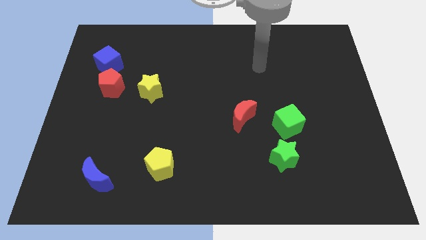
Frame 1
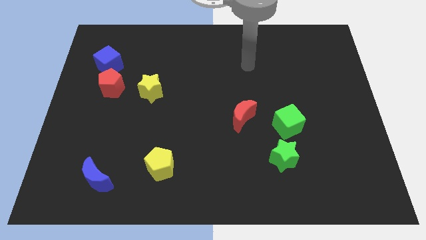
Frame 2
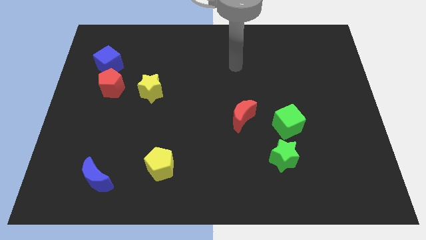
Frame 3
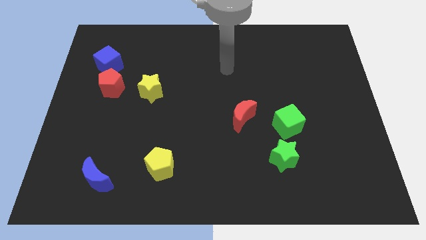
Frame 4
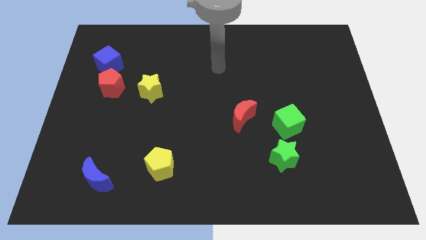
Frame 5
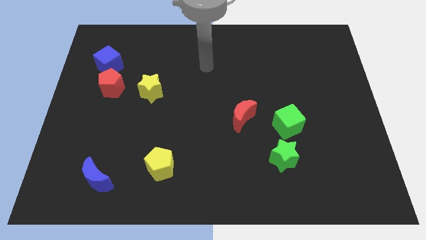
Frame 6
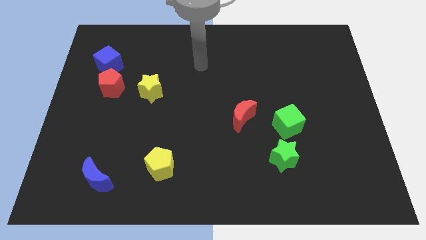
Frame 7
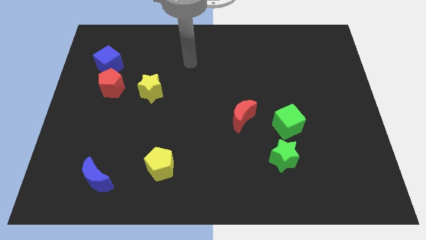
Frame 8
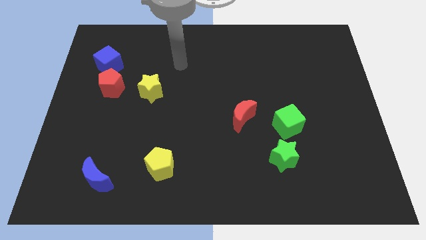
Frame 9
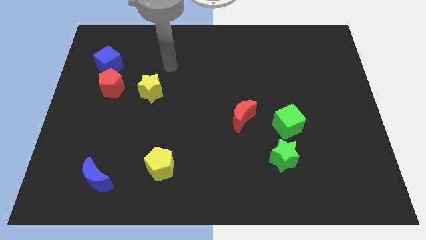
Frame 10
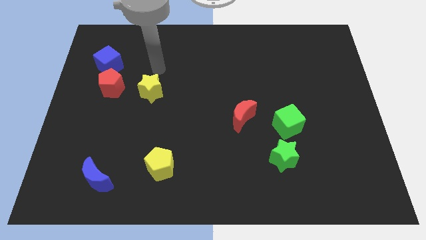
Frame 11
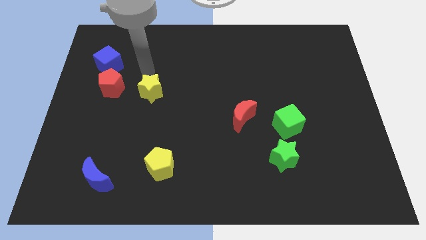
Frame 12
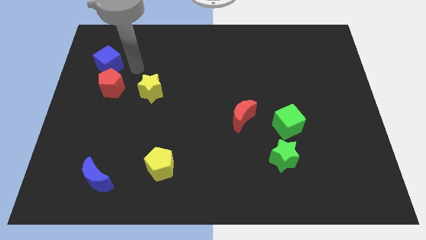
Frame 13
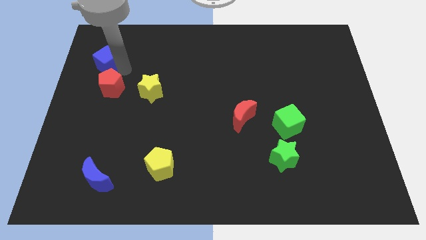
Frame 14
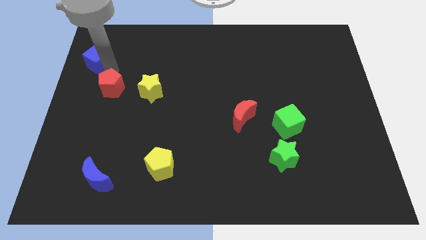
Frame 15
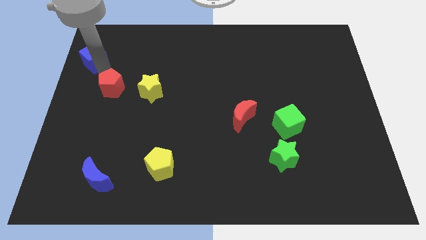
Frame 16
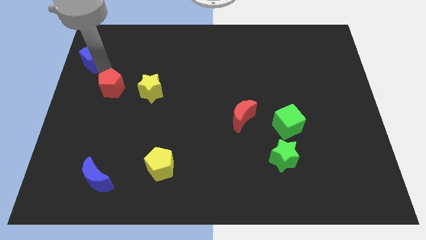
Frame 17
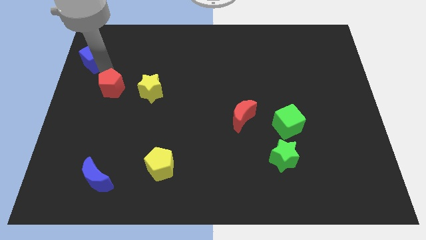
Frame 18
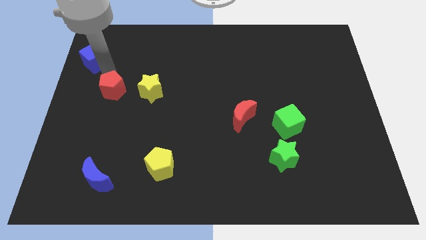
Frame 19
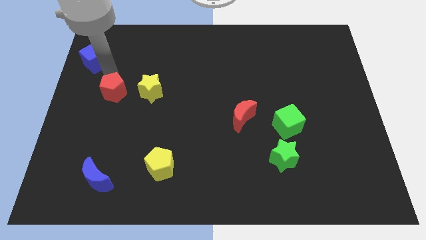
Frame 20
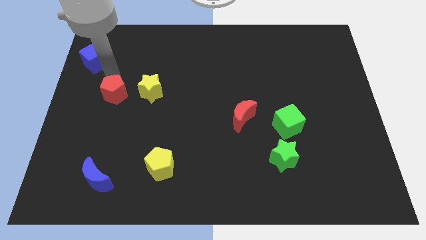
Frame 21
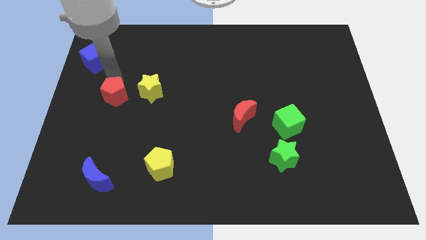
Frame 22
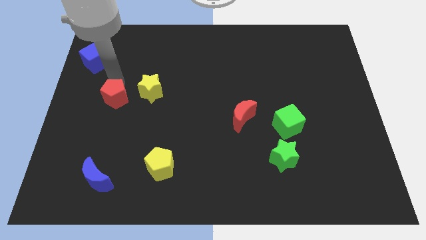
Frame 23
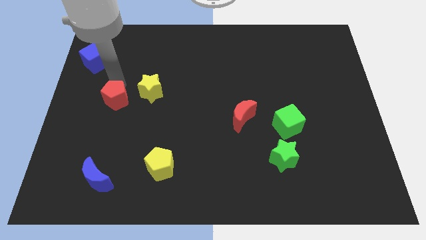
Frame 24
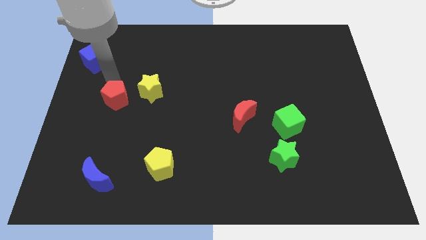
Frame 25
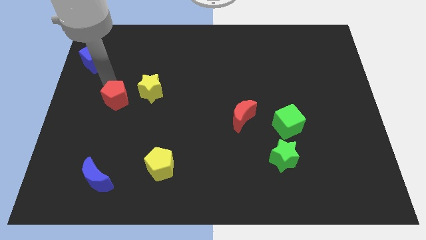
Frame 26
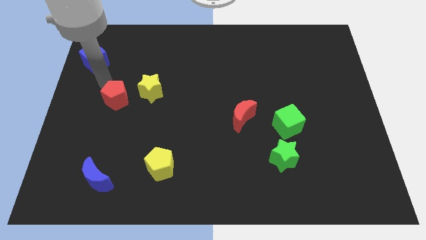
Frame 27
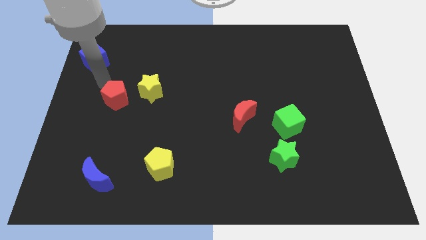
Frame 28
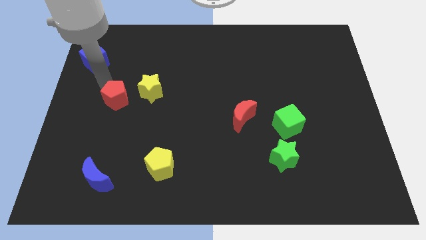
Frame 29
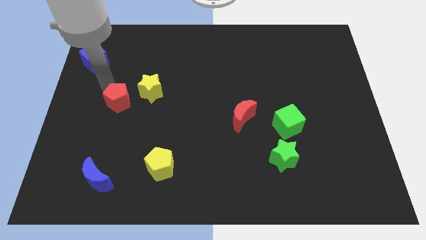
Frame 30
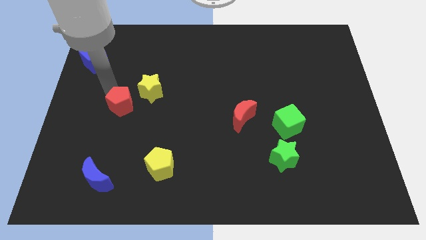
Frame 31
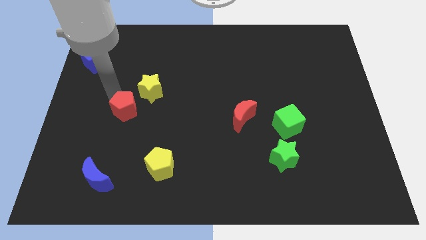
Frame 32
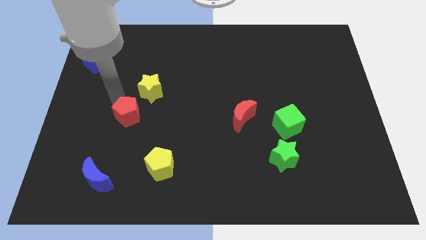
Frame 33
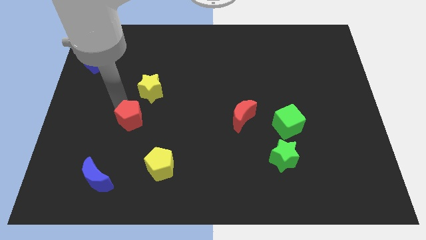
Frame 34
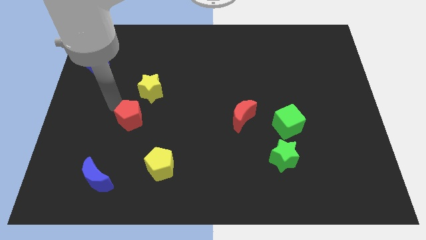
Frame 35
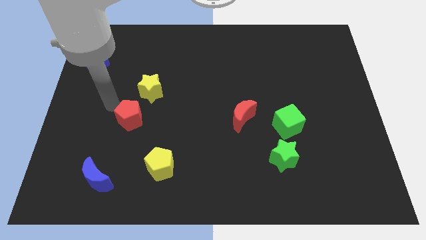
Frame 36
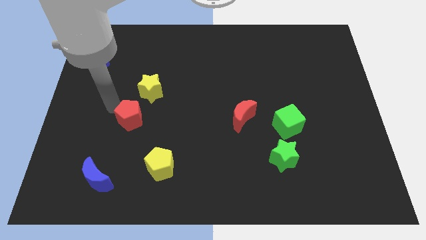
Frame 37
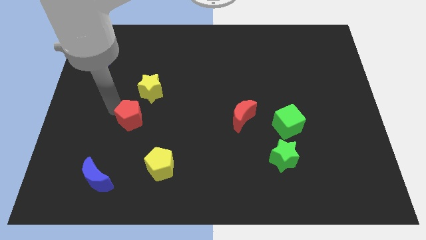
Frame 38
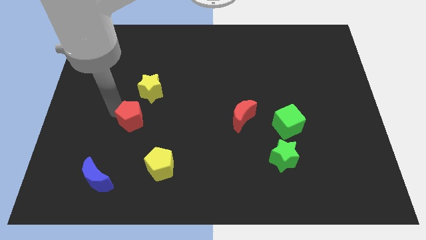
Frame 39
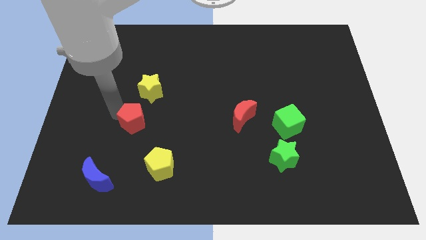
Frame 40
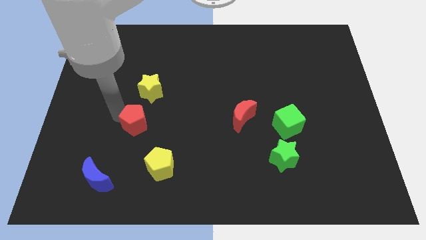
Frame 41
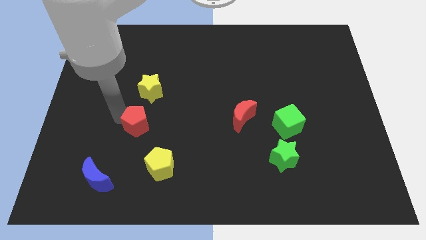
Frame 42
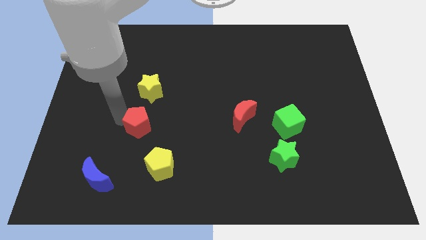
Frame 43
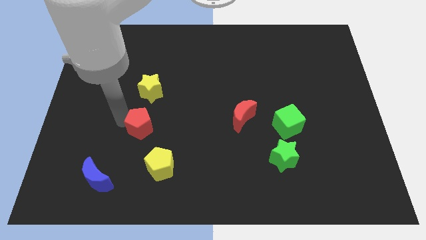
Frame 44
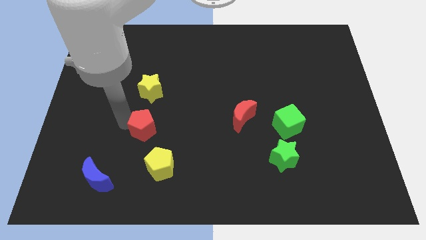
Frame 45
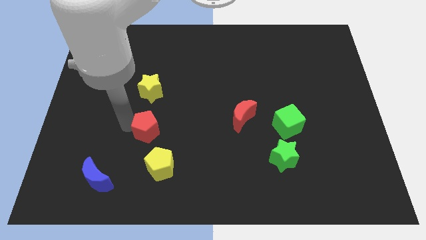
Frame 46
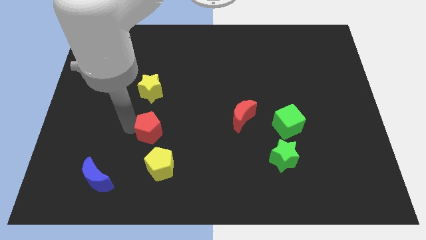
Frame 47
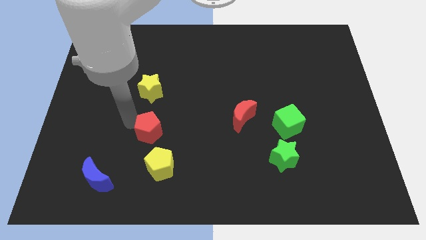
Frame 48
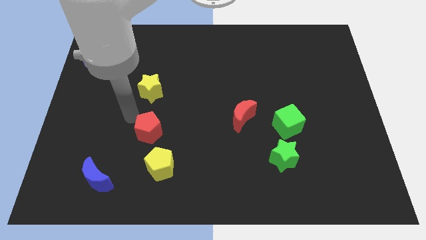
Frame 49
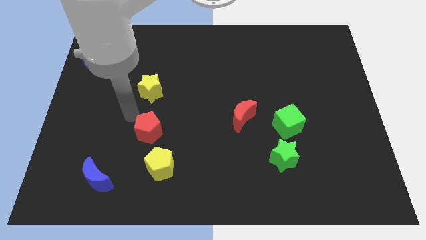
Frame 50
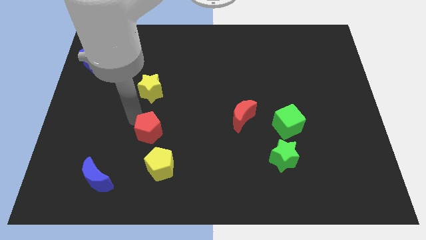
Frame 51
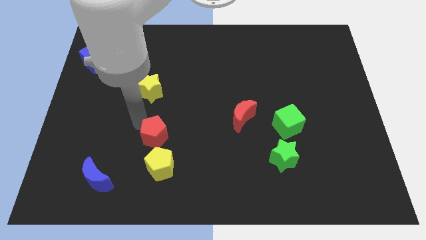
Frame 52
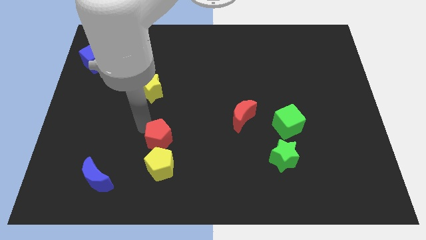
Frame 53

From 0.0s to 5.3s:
slide the red pentagon down and right

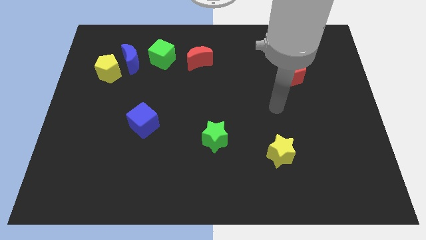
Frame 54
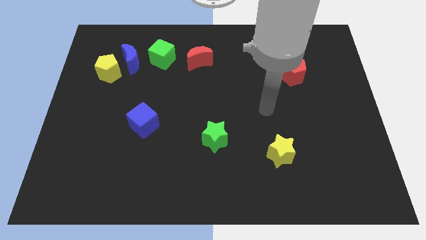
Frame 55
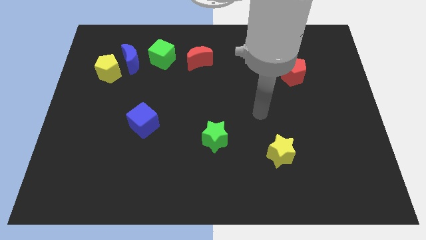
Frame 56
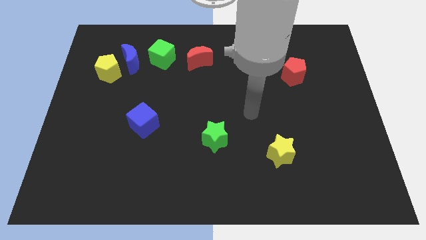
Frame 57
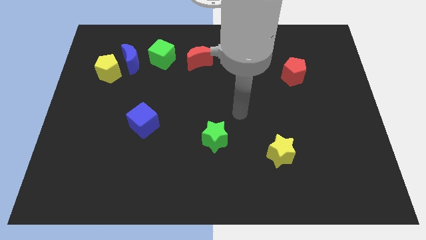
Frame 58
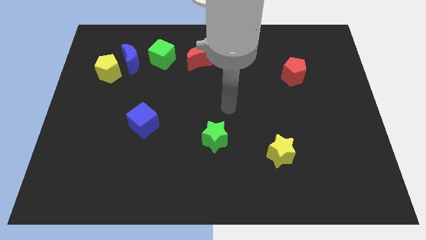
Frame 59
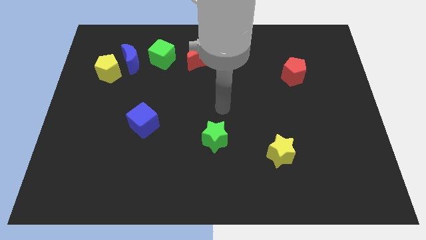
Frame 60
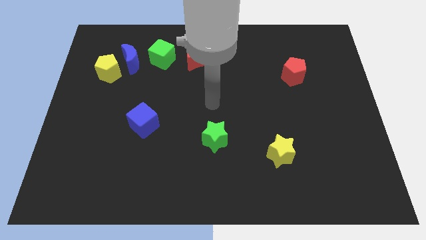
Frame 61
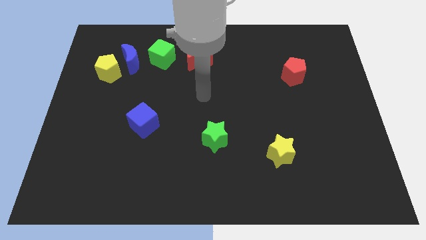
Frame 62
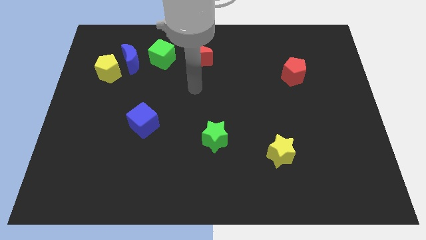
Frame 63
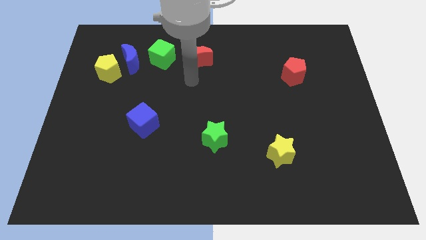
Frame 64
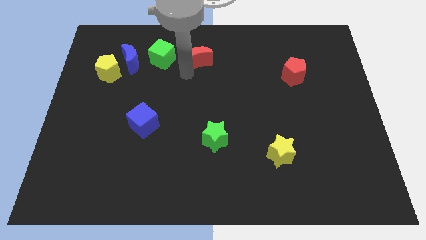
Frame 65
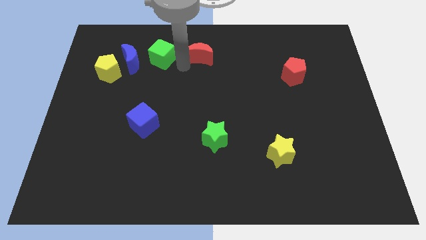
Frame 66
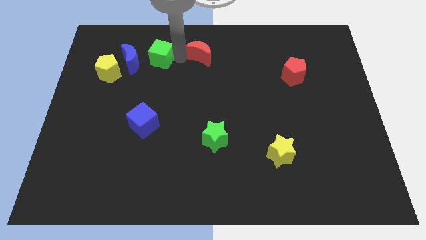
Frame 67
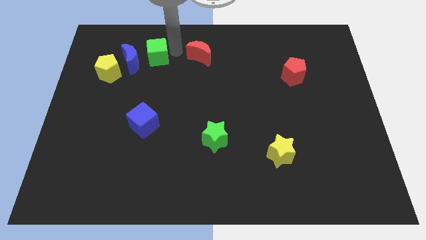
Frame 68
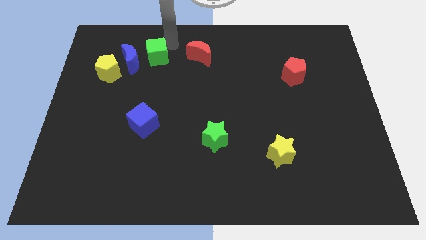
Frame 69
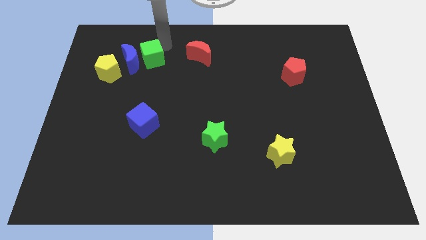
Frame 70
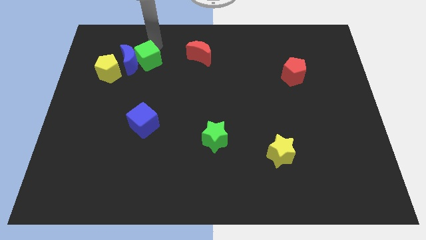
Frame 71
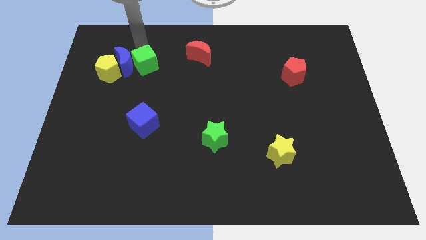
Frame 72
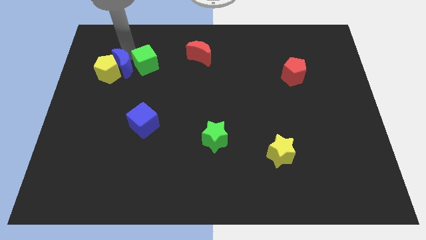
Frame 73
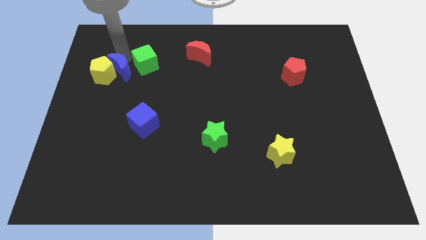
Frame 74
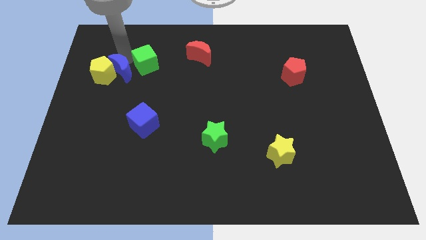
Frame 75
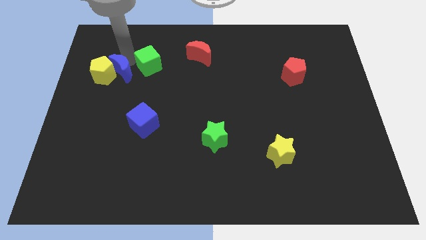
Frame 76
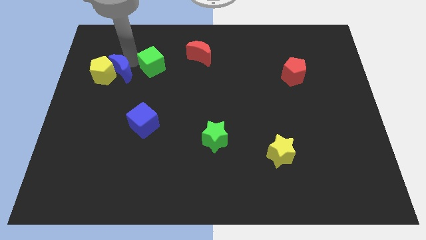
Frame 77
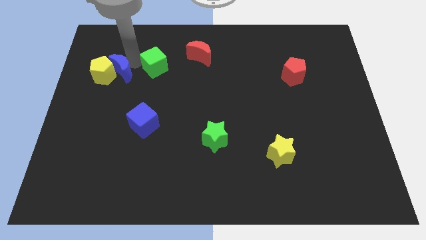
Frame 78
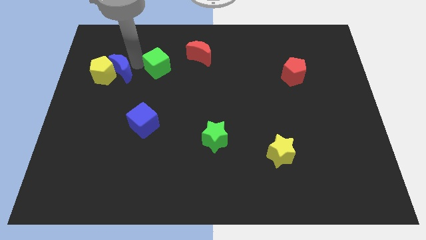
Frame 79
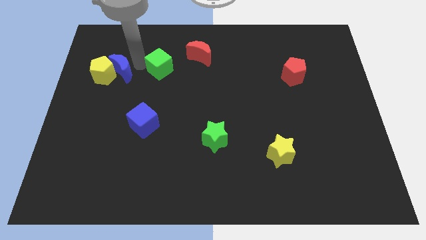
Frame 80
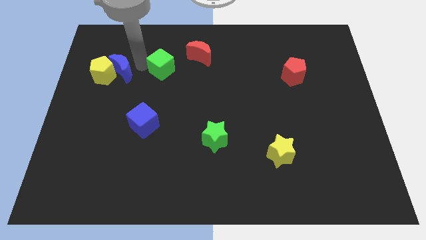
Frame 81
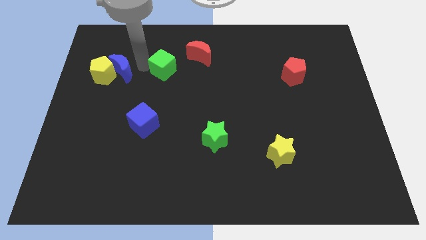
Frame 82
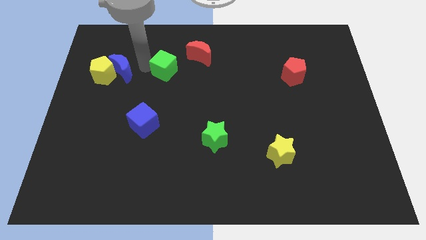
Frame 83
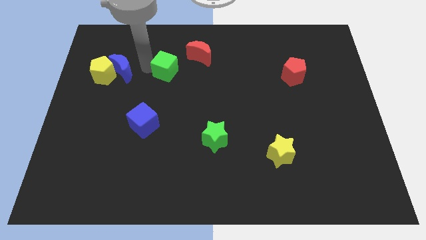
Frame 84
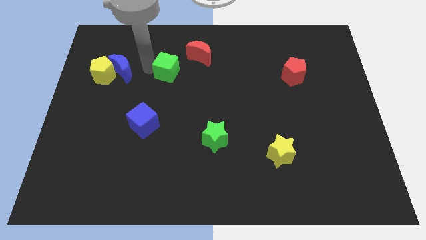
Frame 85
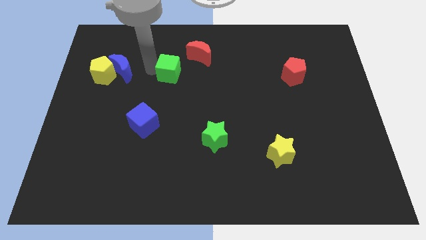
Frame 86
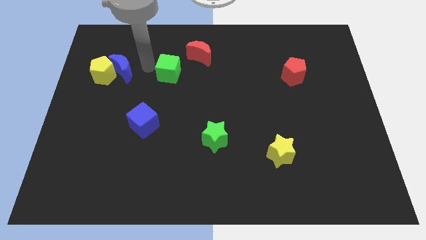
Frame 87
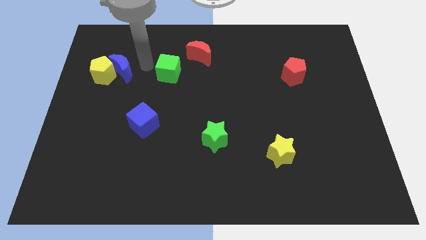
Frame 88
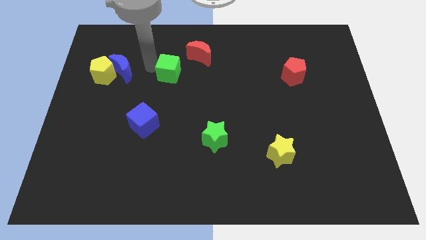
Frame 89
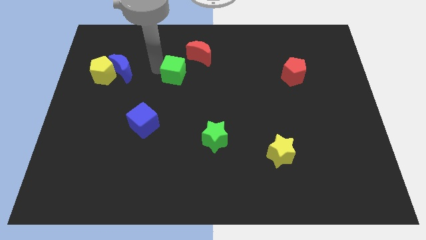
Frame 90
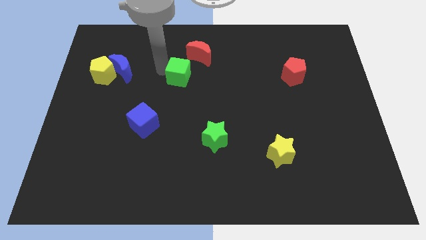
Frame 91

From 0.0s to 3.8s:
slightly move the green cube downwards and to the right diagonally
